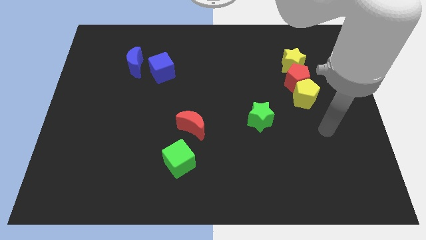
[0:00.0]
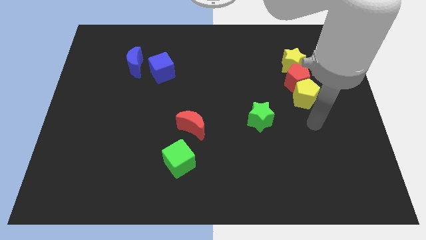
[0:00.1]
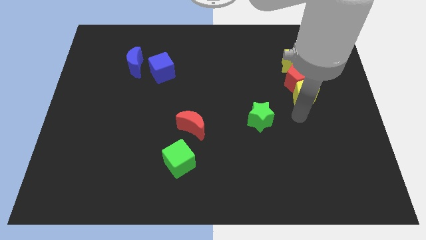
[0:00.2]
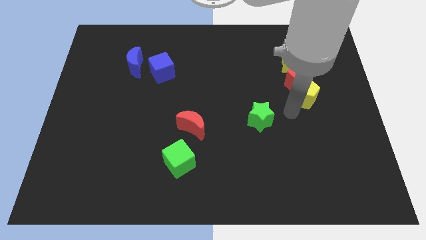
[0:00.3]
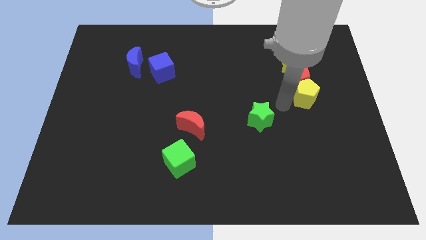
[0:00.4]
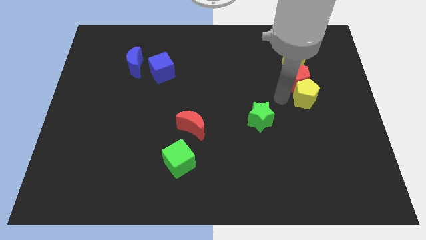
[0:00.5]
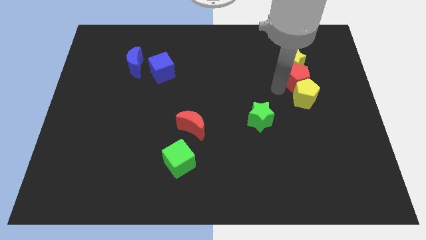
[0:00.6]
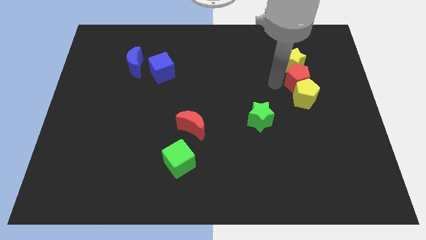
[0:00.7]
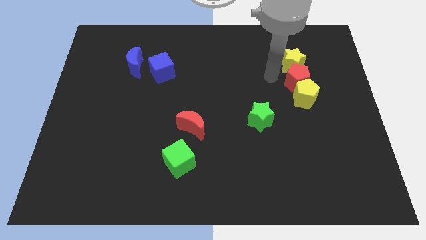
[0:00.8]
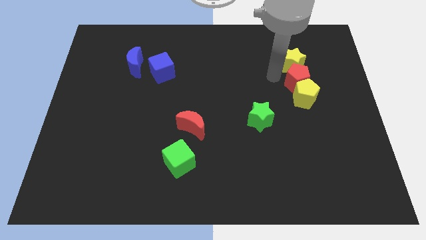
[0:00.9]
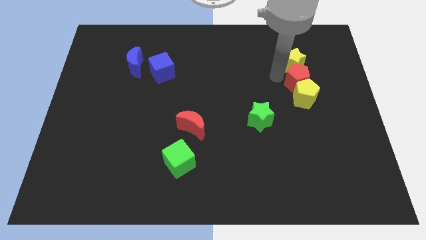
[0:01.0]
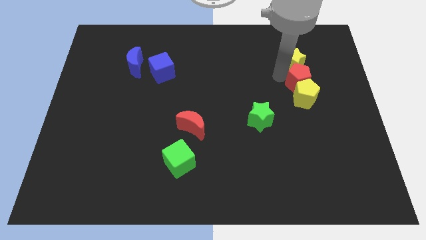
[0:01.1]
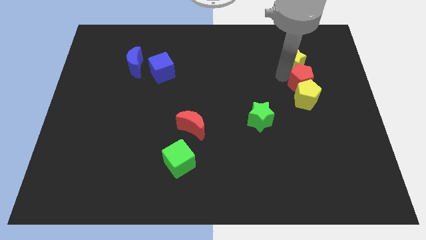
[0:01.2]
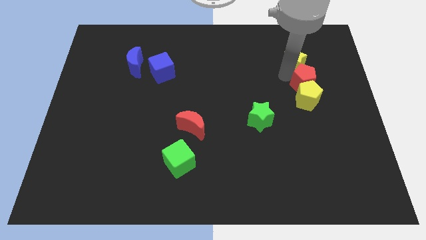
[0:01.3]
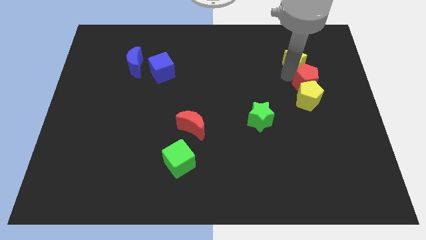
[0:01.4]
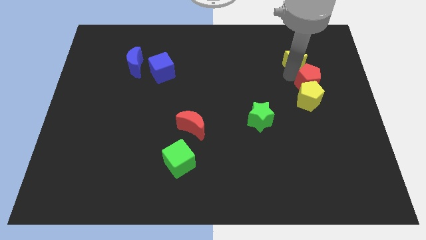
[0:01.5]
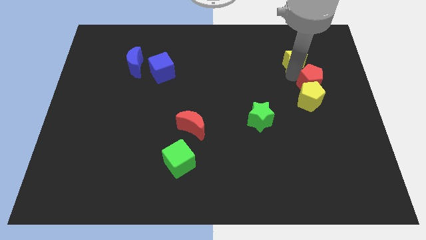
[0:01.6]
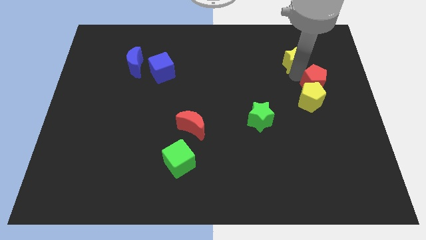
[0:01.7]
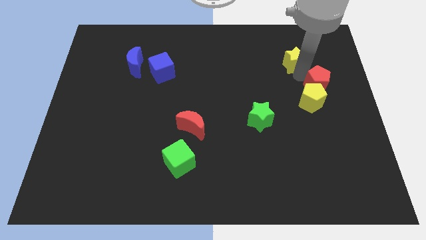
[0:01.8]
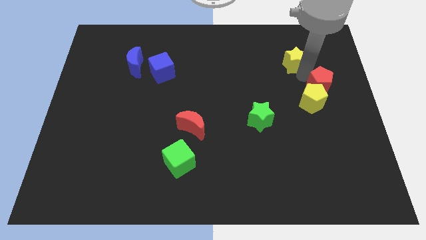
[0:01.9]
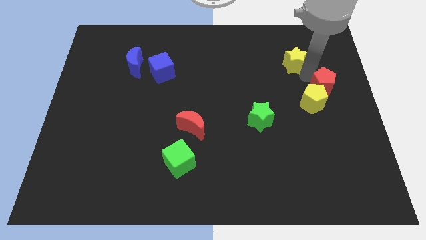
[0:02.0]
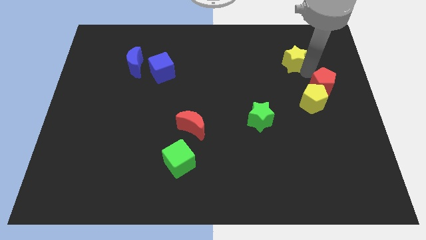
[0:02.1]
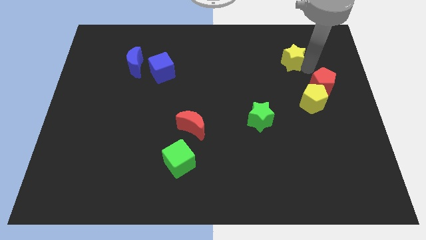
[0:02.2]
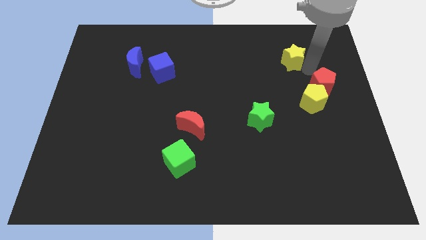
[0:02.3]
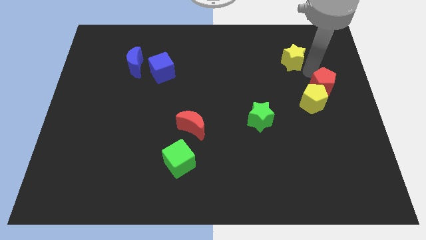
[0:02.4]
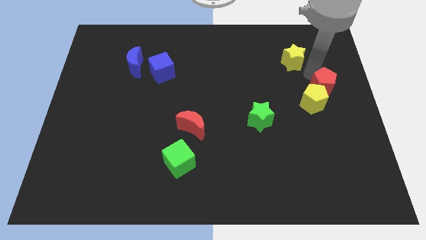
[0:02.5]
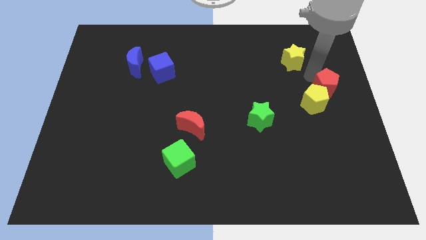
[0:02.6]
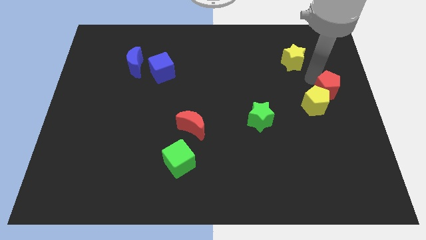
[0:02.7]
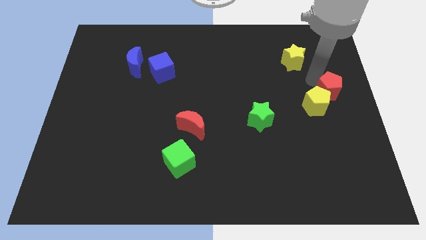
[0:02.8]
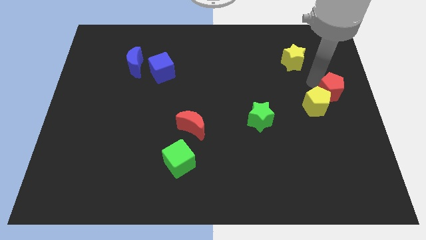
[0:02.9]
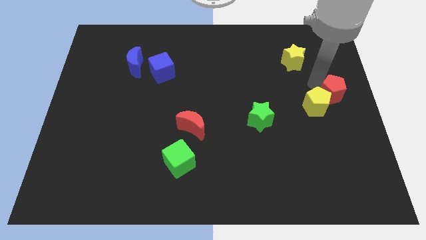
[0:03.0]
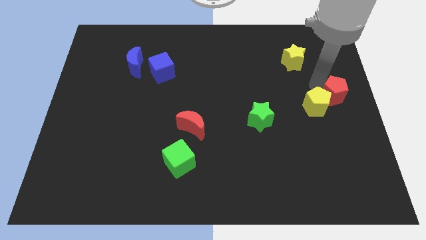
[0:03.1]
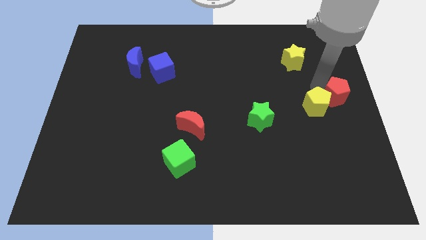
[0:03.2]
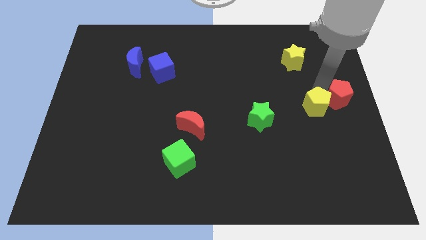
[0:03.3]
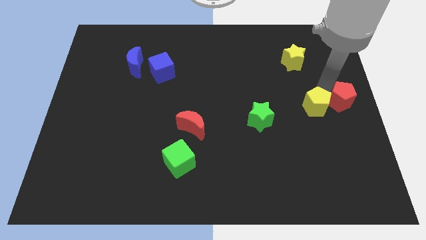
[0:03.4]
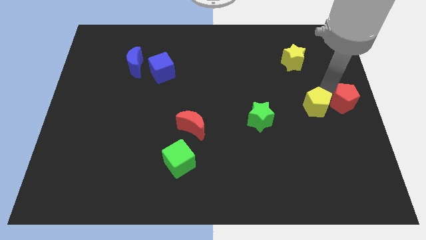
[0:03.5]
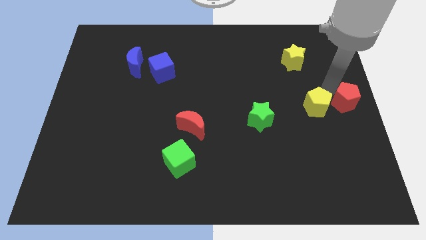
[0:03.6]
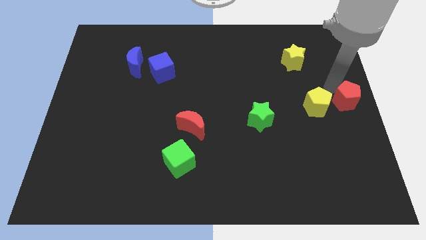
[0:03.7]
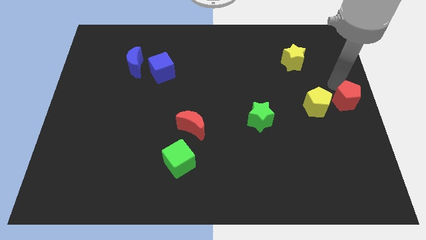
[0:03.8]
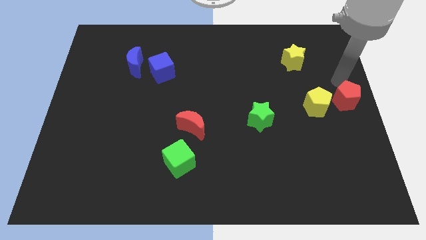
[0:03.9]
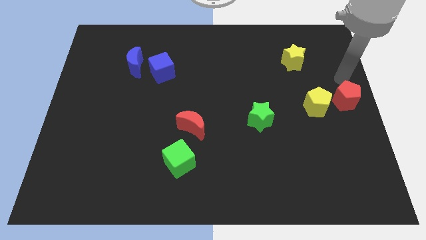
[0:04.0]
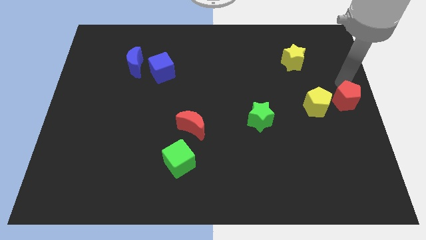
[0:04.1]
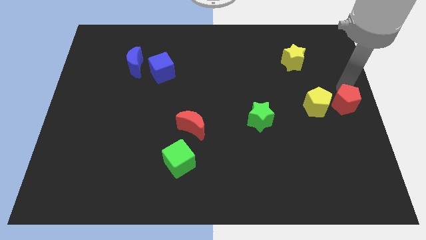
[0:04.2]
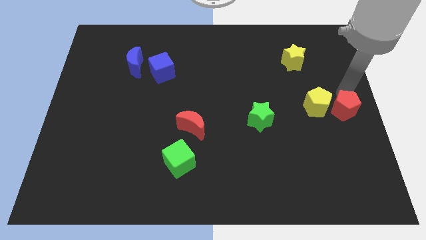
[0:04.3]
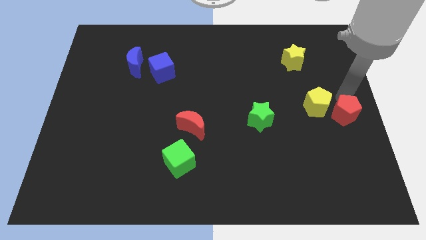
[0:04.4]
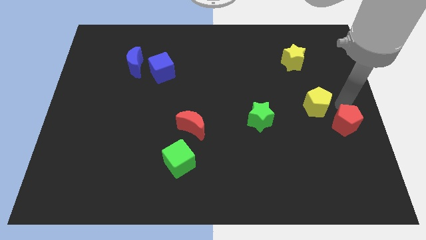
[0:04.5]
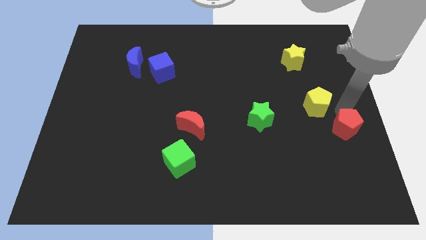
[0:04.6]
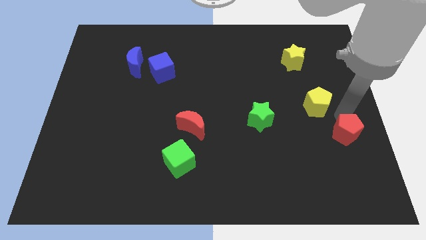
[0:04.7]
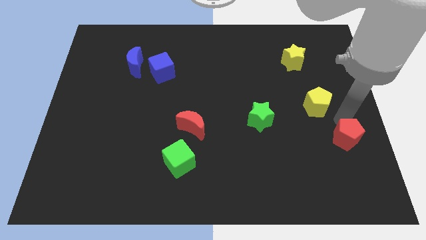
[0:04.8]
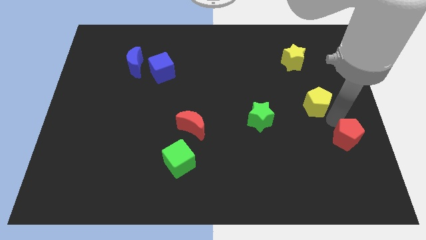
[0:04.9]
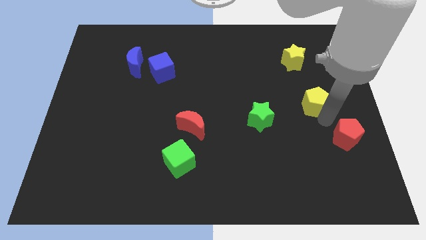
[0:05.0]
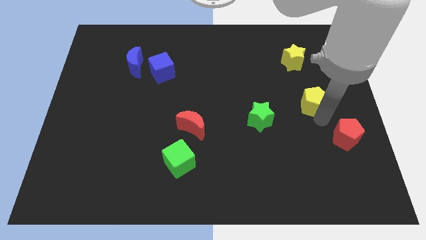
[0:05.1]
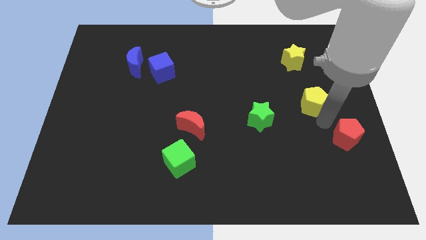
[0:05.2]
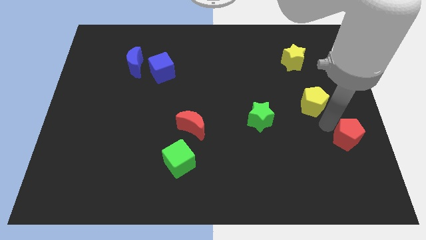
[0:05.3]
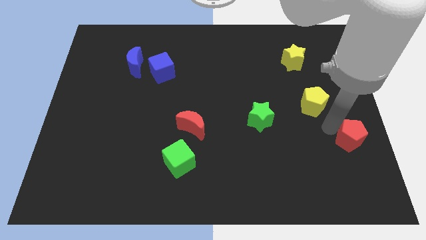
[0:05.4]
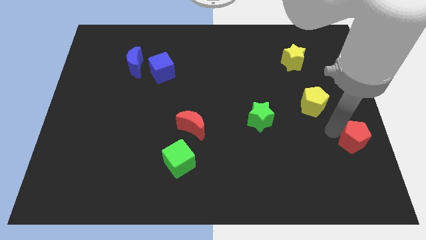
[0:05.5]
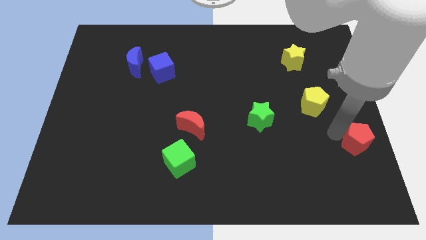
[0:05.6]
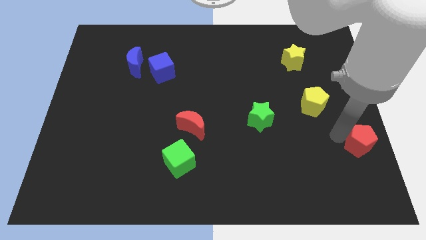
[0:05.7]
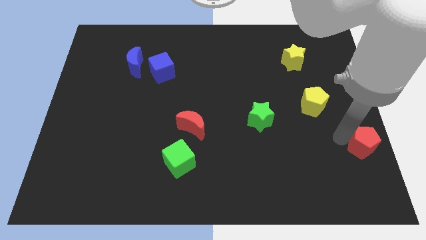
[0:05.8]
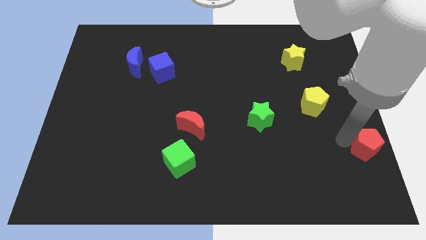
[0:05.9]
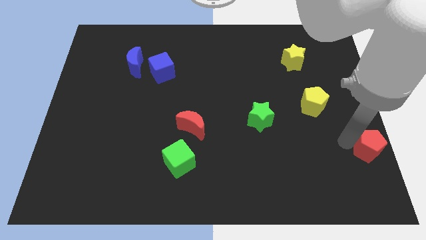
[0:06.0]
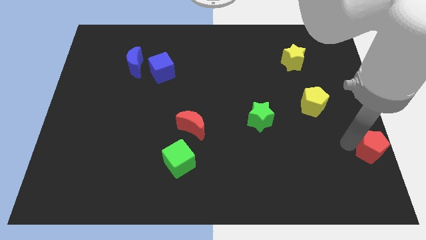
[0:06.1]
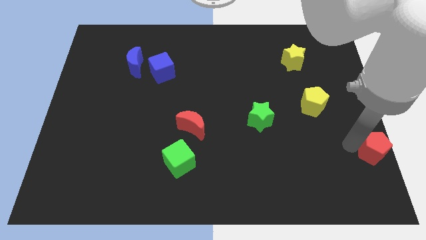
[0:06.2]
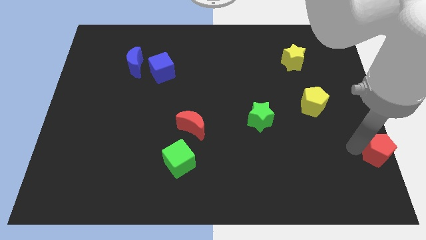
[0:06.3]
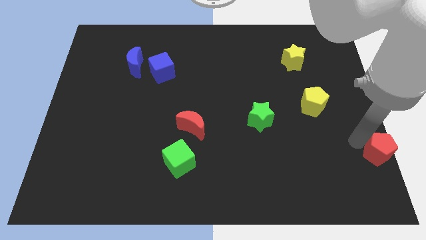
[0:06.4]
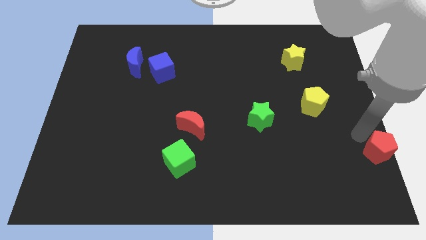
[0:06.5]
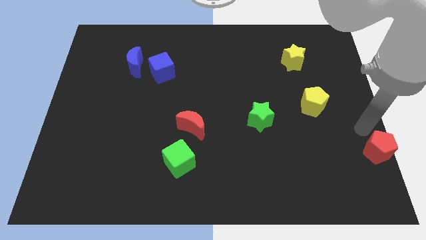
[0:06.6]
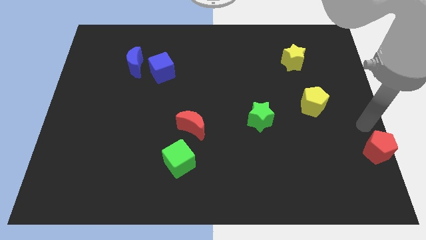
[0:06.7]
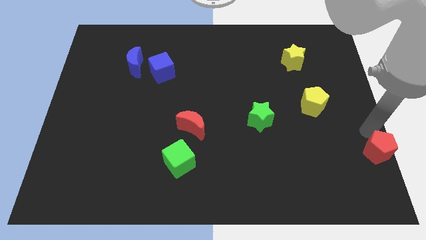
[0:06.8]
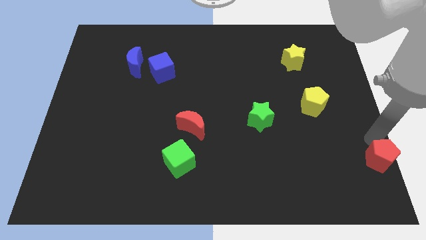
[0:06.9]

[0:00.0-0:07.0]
slide the red pentagon to the bottom right corner
